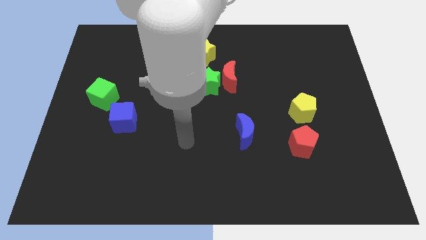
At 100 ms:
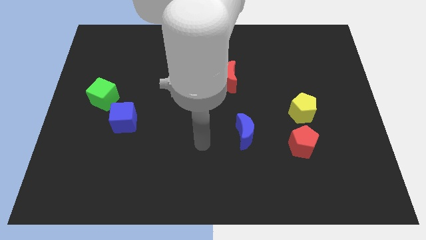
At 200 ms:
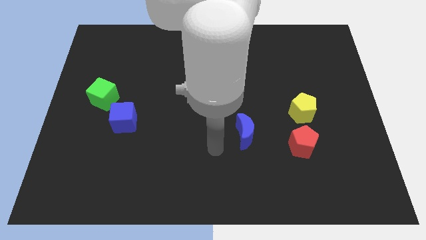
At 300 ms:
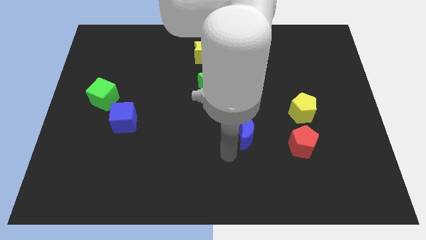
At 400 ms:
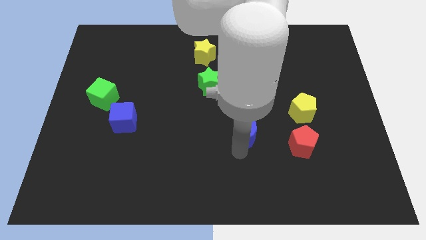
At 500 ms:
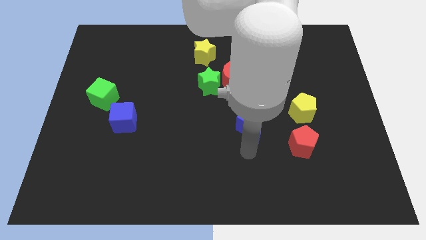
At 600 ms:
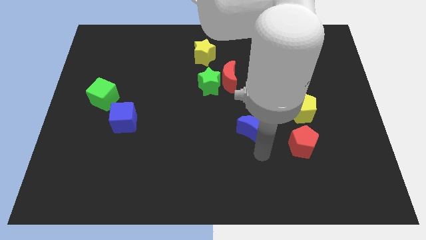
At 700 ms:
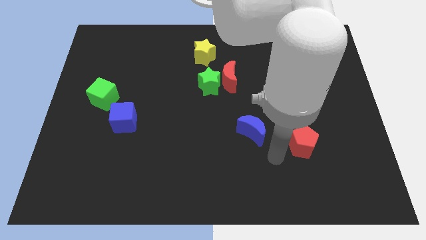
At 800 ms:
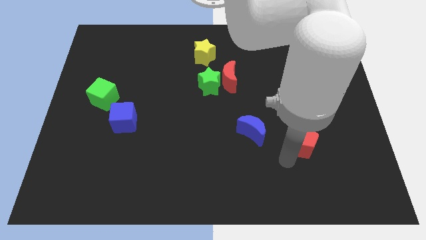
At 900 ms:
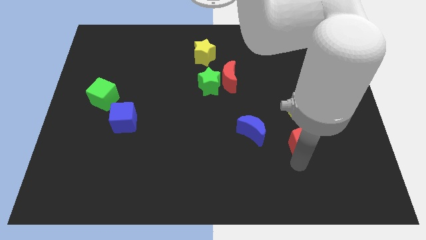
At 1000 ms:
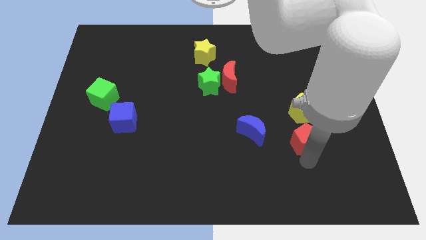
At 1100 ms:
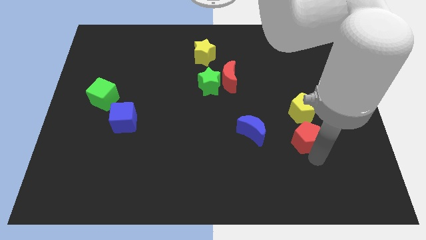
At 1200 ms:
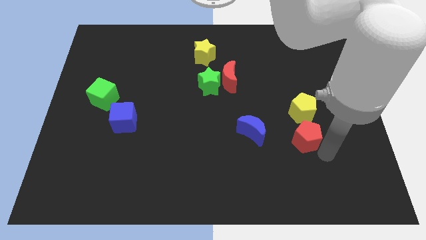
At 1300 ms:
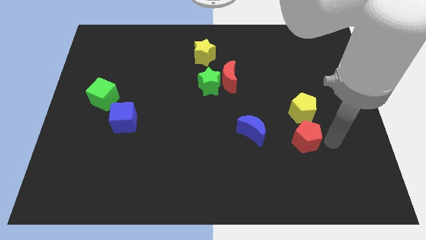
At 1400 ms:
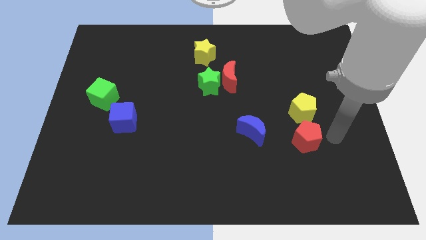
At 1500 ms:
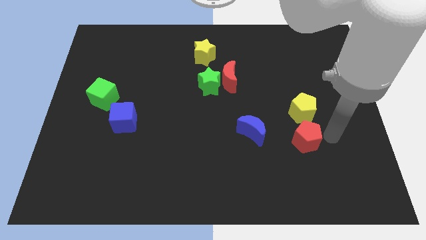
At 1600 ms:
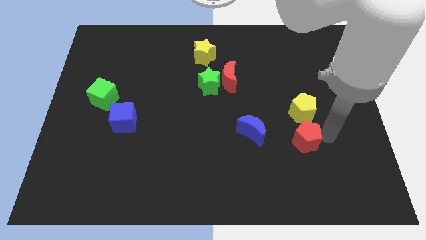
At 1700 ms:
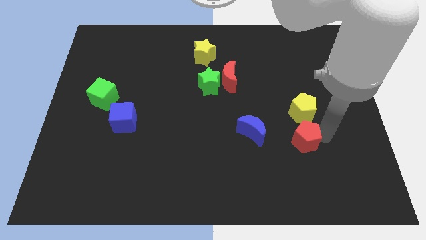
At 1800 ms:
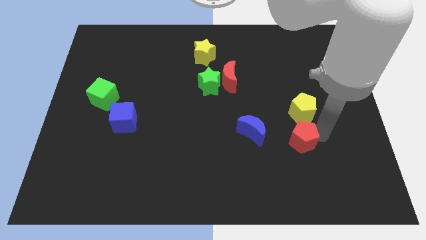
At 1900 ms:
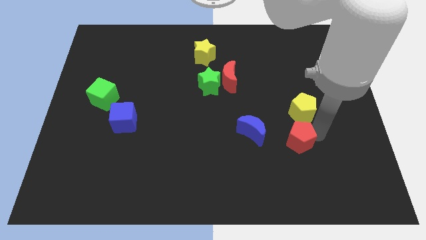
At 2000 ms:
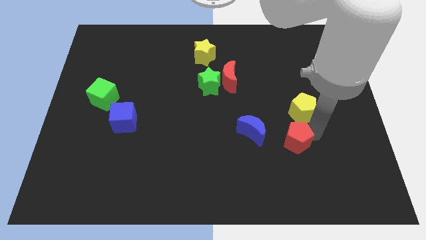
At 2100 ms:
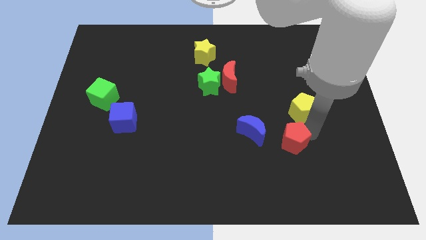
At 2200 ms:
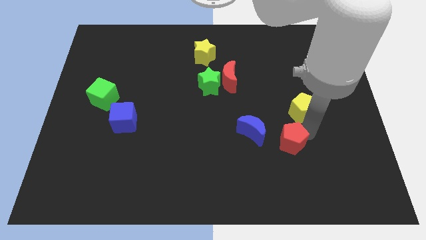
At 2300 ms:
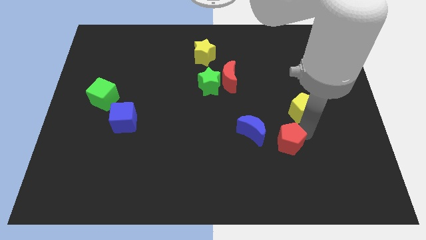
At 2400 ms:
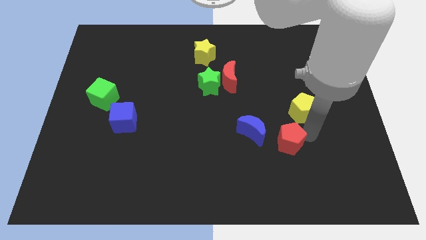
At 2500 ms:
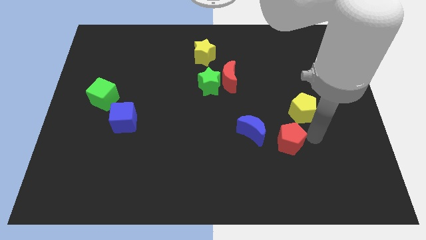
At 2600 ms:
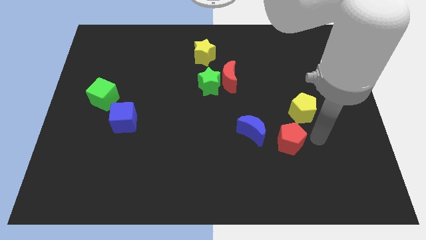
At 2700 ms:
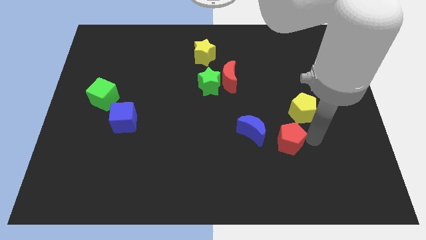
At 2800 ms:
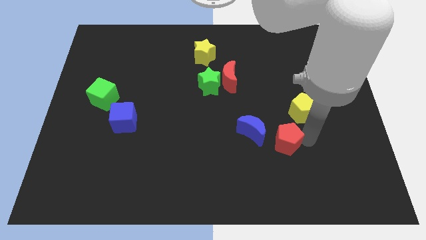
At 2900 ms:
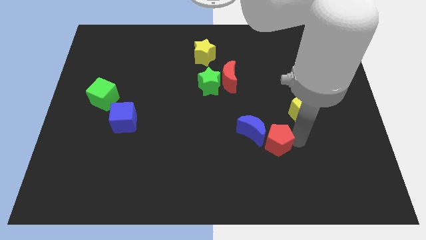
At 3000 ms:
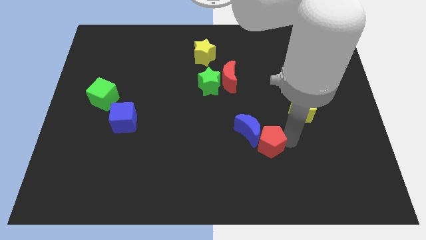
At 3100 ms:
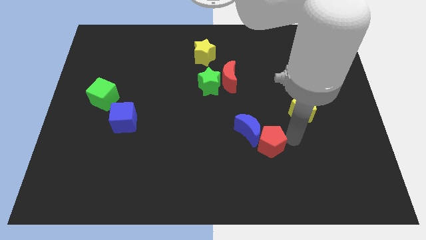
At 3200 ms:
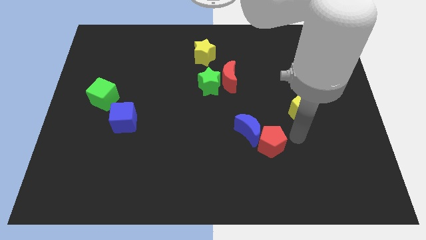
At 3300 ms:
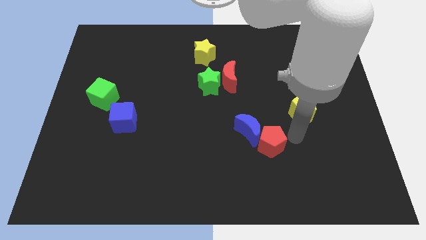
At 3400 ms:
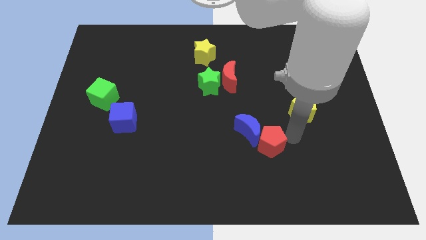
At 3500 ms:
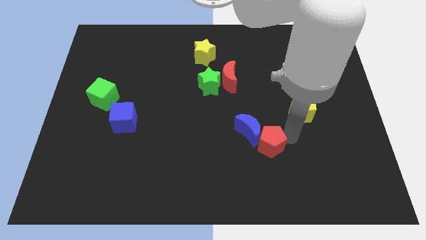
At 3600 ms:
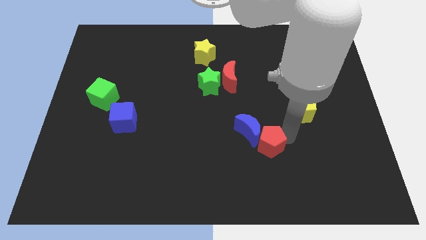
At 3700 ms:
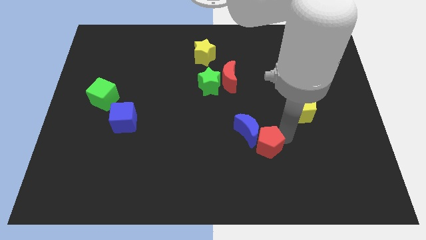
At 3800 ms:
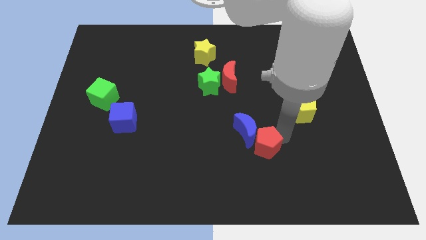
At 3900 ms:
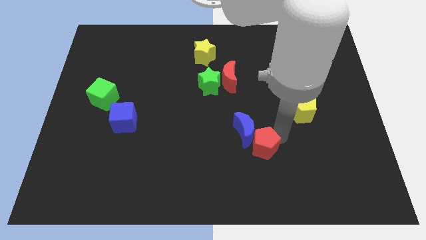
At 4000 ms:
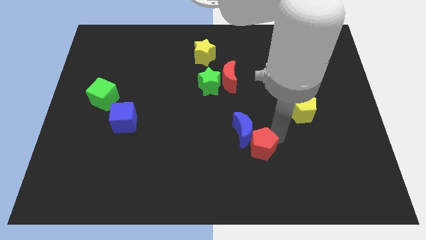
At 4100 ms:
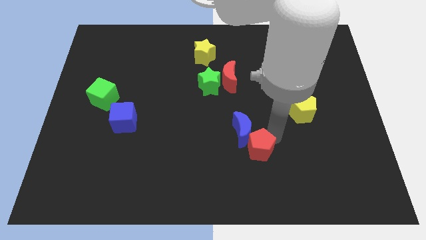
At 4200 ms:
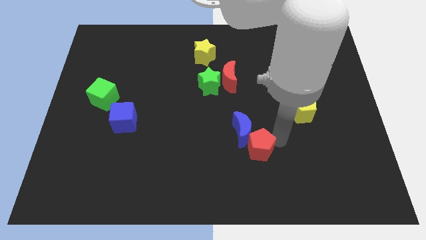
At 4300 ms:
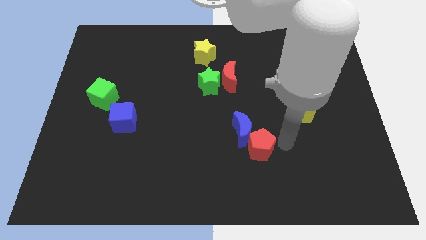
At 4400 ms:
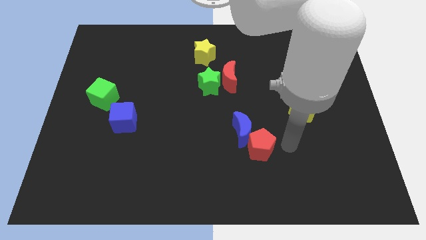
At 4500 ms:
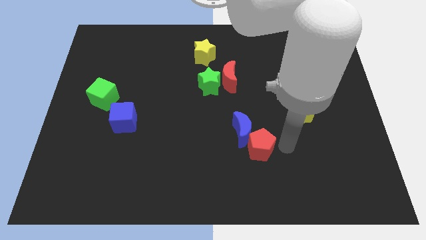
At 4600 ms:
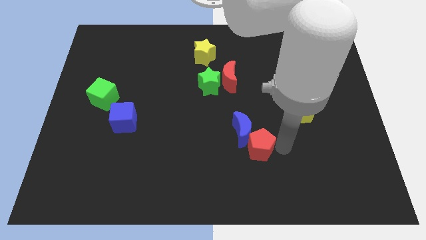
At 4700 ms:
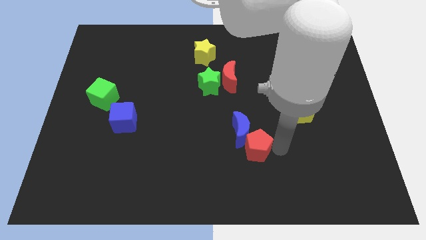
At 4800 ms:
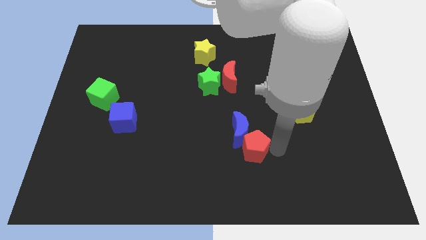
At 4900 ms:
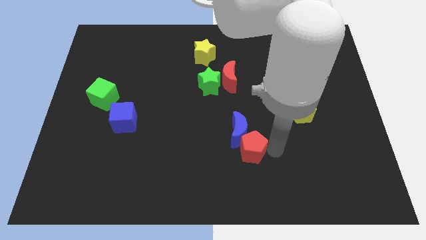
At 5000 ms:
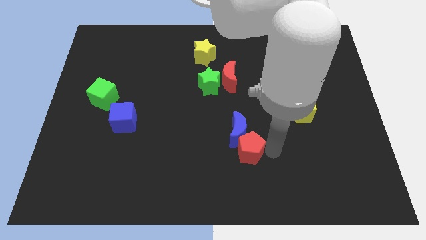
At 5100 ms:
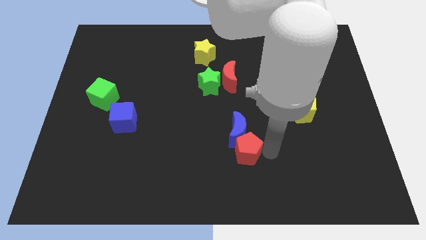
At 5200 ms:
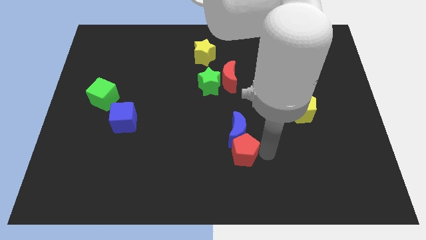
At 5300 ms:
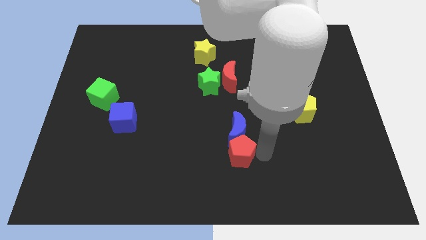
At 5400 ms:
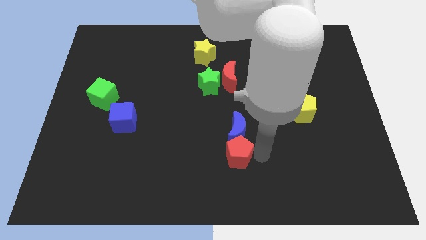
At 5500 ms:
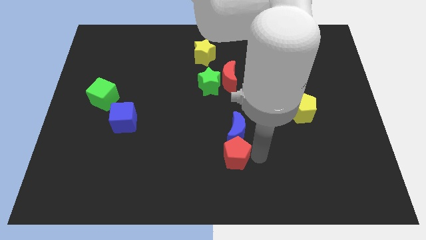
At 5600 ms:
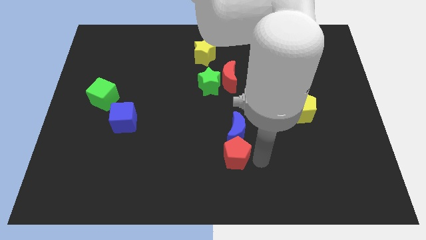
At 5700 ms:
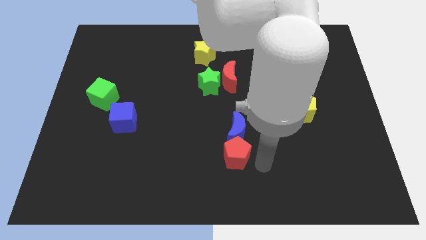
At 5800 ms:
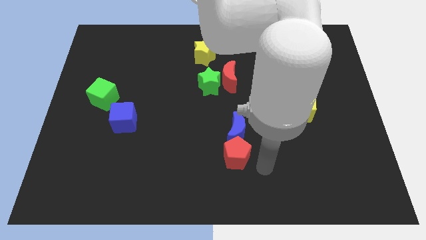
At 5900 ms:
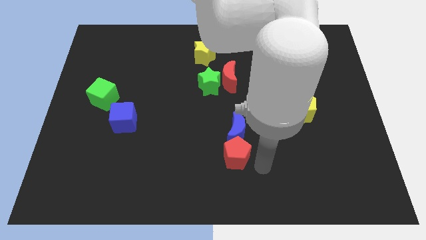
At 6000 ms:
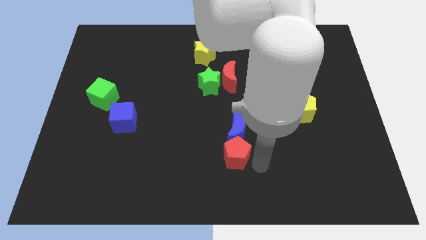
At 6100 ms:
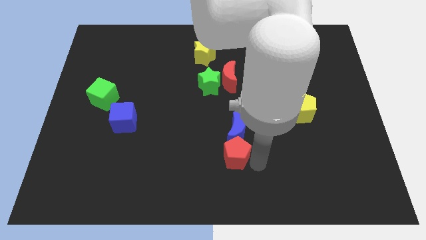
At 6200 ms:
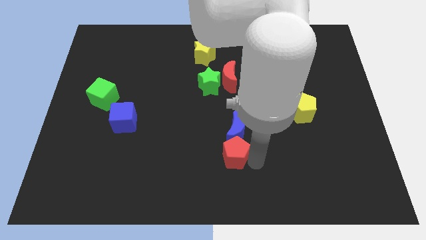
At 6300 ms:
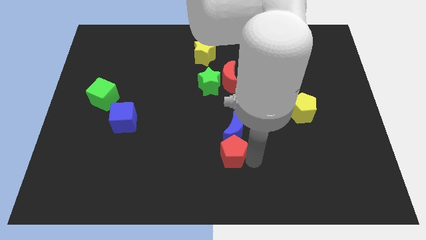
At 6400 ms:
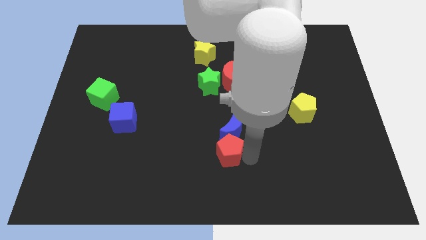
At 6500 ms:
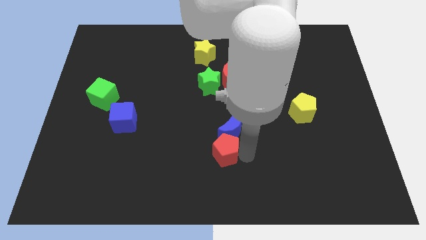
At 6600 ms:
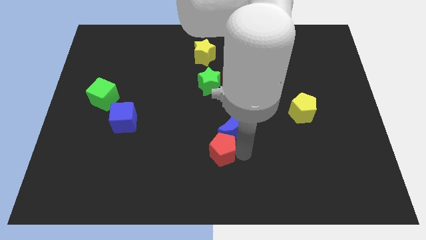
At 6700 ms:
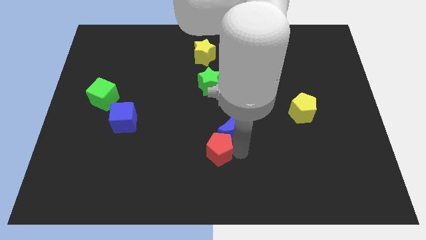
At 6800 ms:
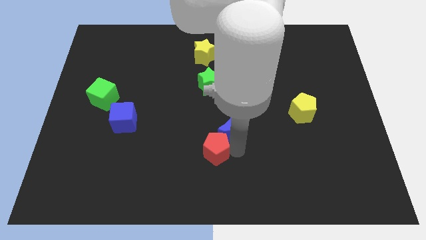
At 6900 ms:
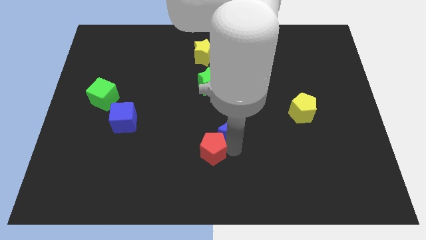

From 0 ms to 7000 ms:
push the red pentagon to the left

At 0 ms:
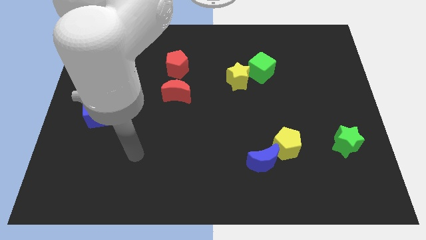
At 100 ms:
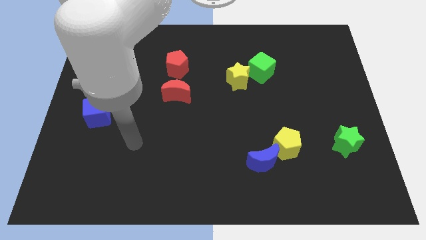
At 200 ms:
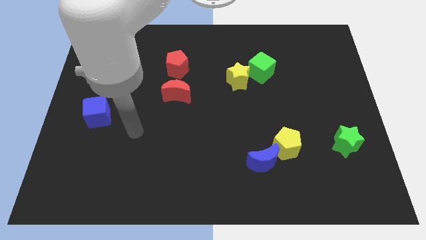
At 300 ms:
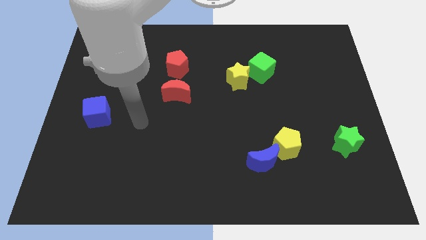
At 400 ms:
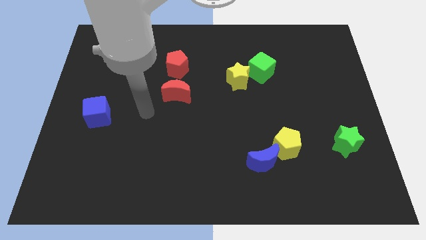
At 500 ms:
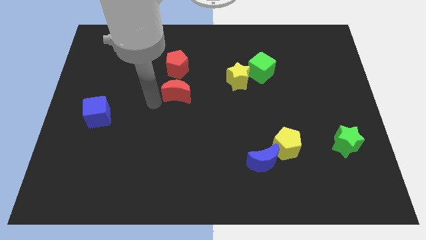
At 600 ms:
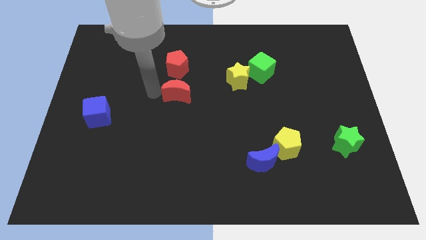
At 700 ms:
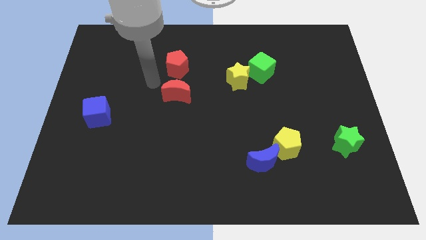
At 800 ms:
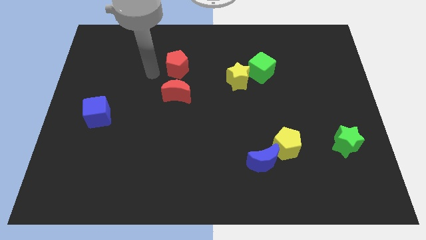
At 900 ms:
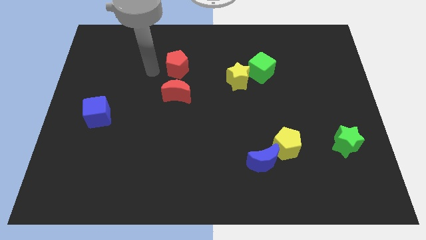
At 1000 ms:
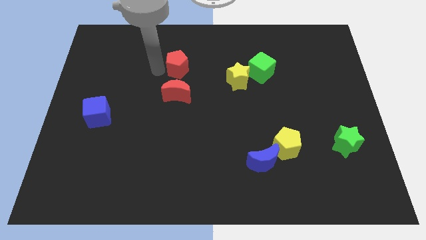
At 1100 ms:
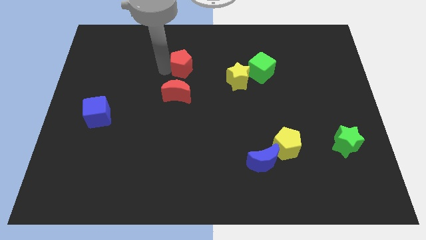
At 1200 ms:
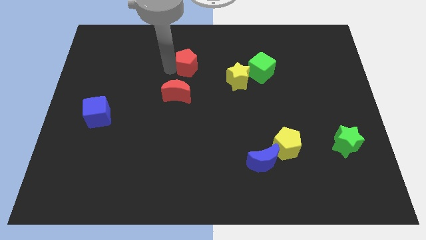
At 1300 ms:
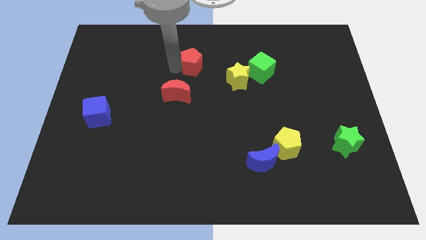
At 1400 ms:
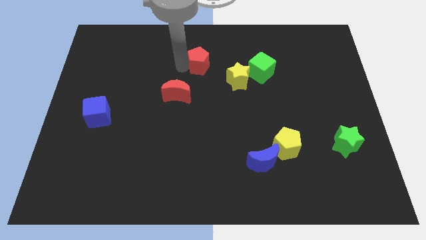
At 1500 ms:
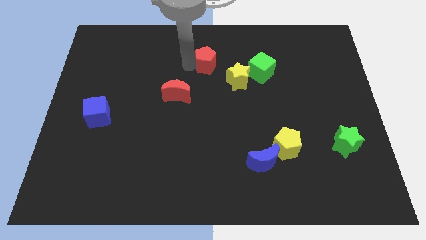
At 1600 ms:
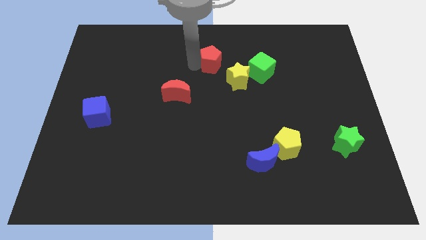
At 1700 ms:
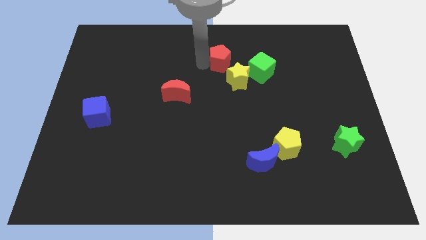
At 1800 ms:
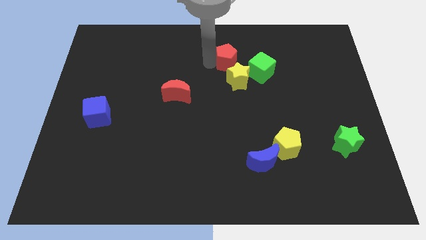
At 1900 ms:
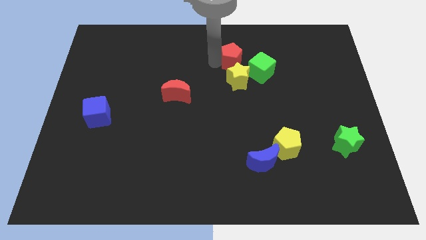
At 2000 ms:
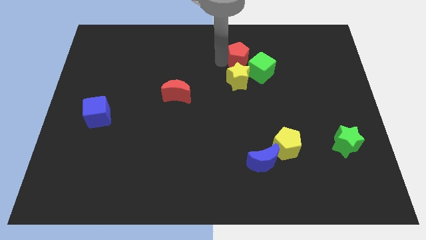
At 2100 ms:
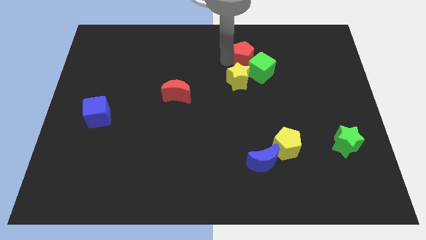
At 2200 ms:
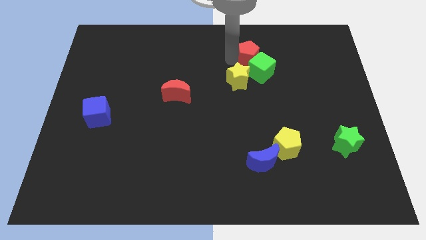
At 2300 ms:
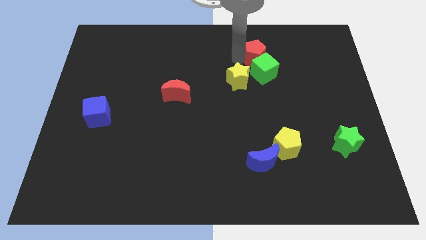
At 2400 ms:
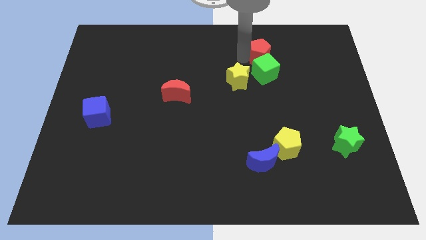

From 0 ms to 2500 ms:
slide the red pentagon right
